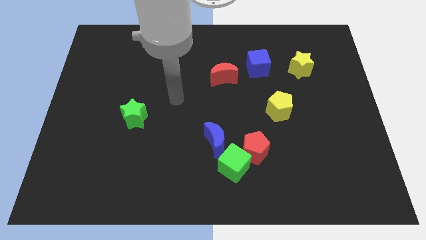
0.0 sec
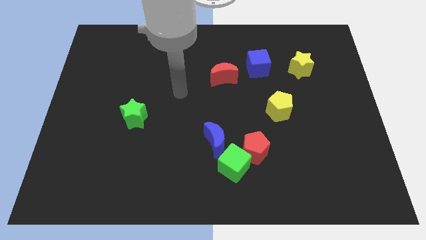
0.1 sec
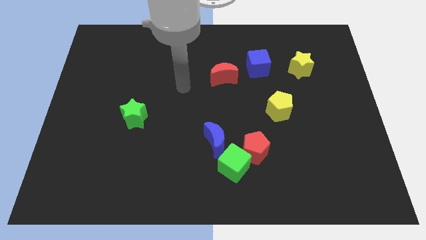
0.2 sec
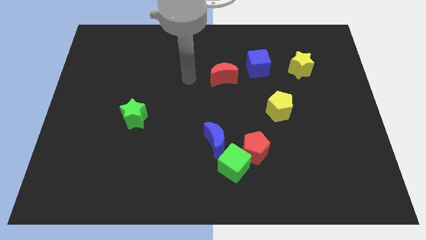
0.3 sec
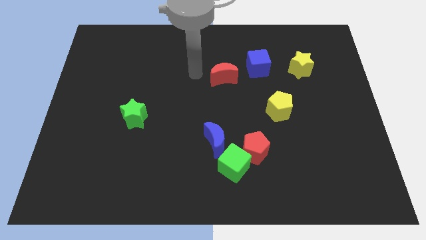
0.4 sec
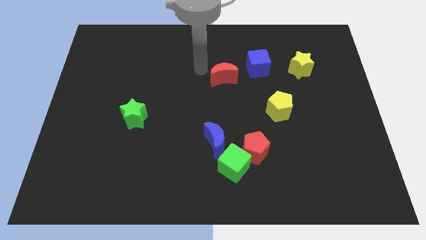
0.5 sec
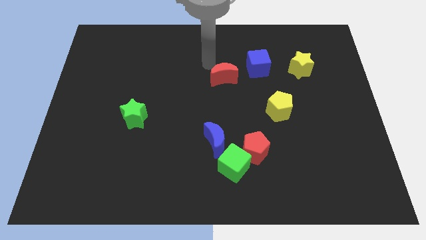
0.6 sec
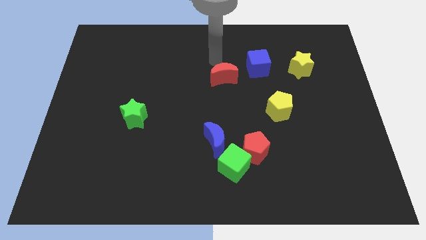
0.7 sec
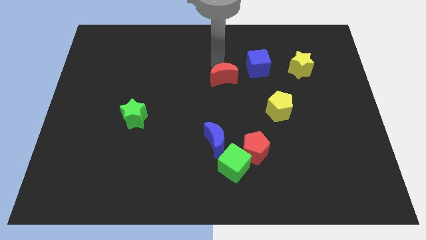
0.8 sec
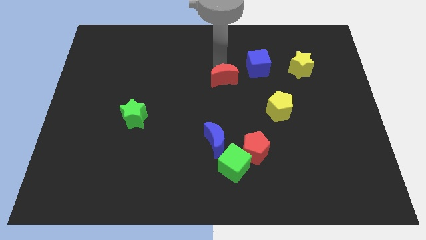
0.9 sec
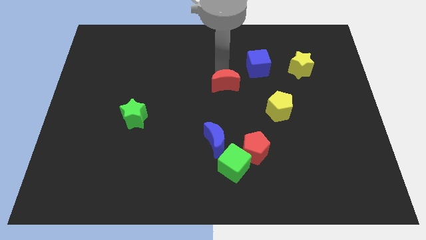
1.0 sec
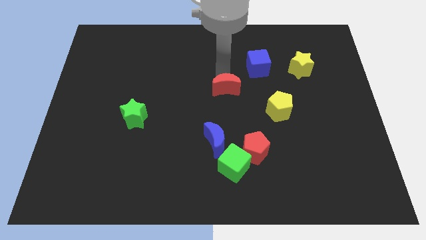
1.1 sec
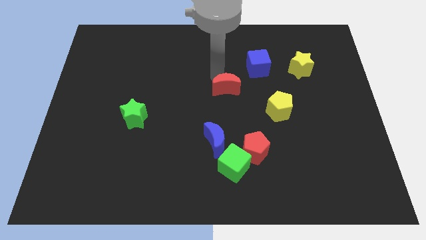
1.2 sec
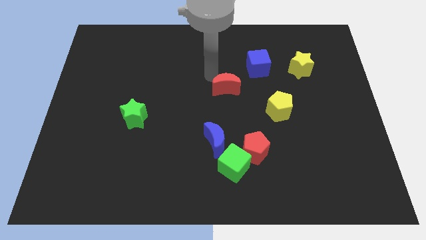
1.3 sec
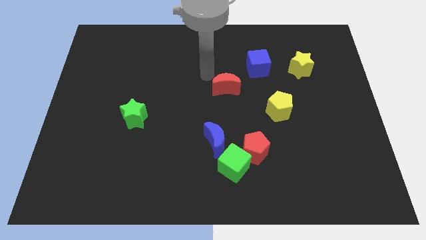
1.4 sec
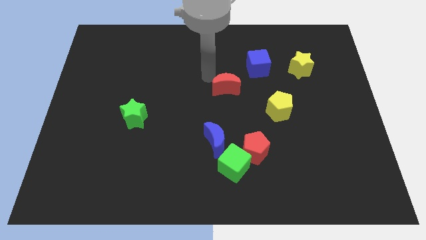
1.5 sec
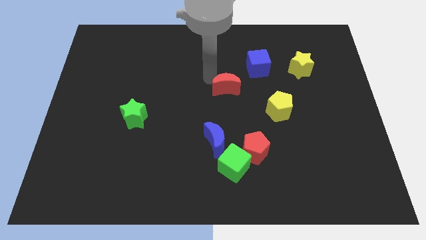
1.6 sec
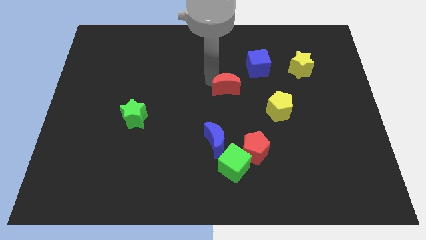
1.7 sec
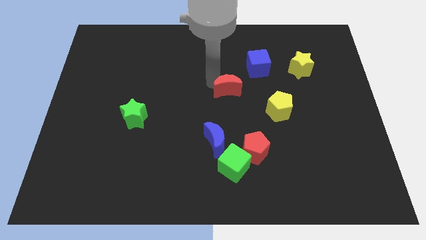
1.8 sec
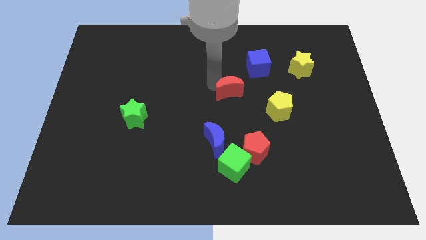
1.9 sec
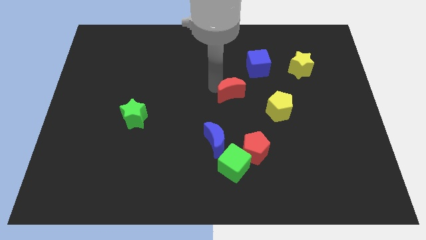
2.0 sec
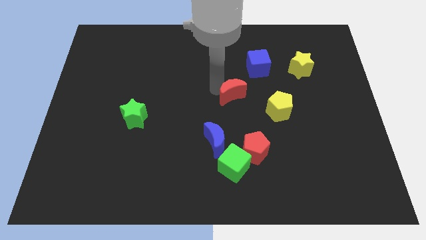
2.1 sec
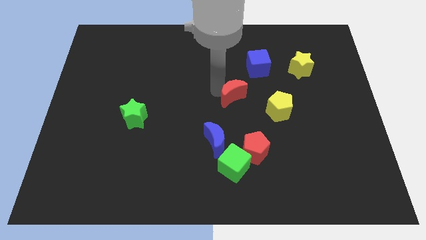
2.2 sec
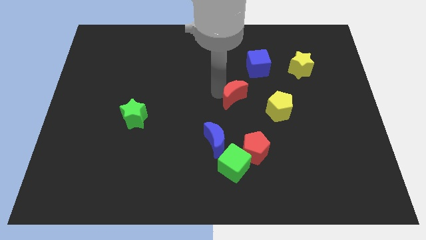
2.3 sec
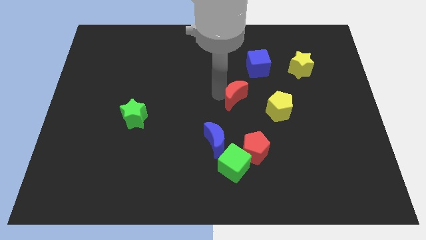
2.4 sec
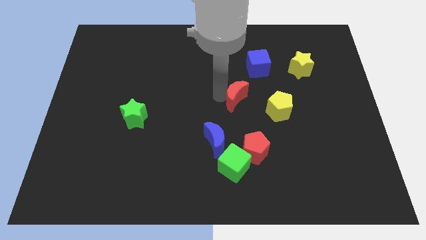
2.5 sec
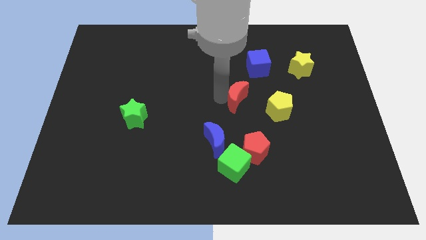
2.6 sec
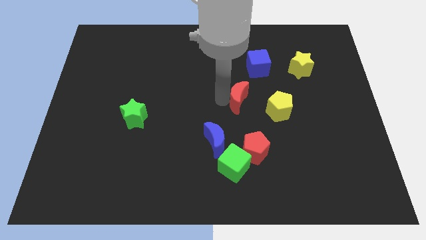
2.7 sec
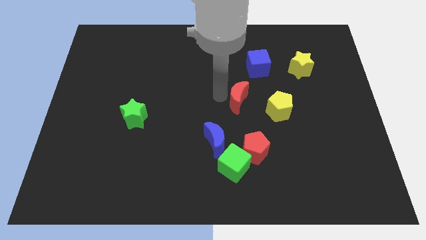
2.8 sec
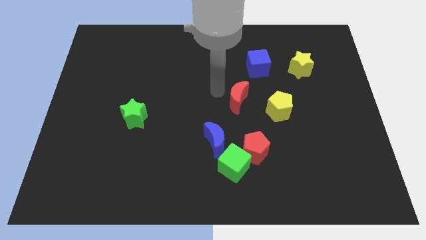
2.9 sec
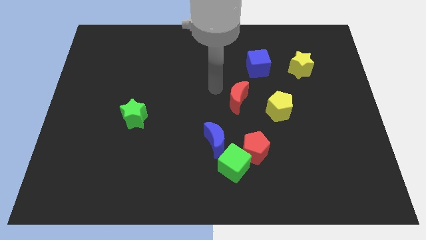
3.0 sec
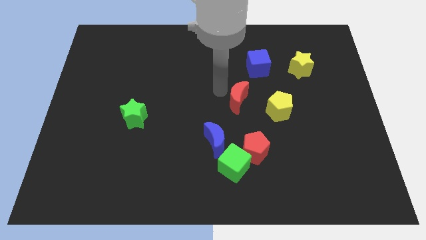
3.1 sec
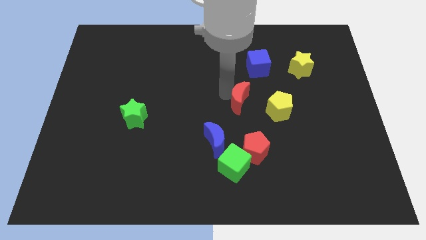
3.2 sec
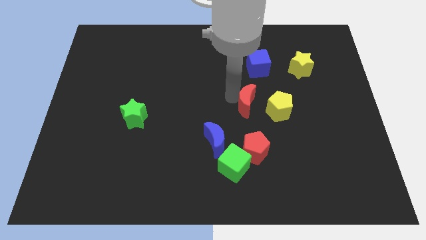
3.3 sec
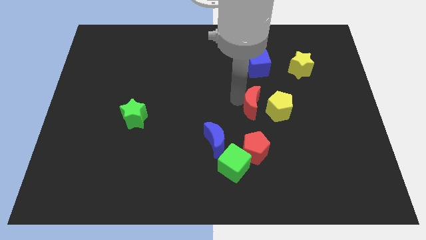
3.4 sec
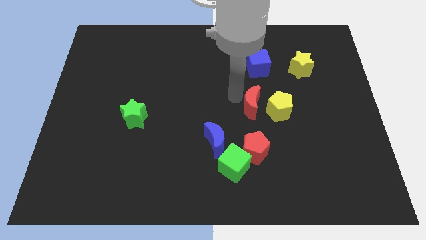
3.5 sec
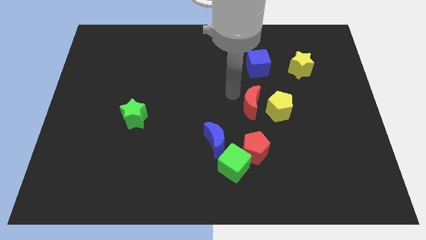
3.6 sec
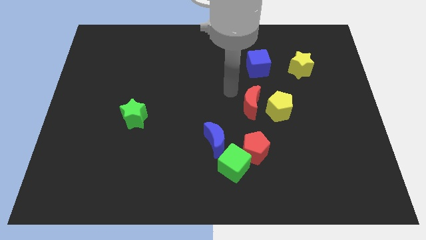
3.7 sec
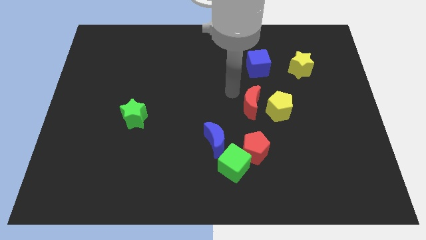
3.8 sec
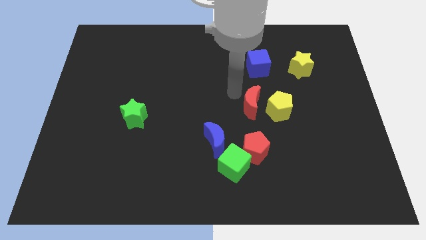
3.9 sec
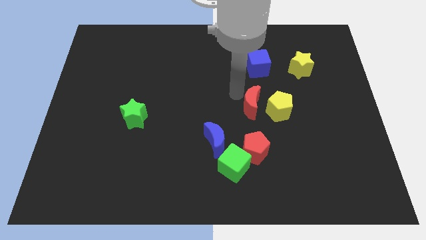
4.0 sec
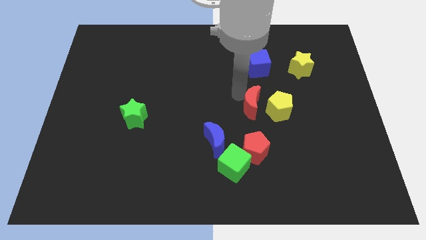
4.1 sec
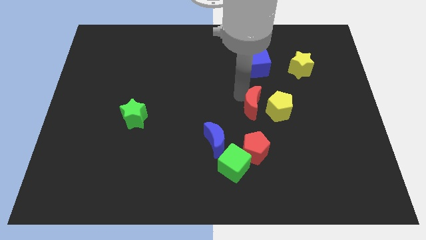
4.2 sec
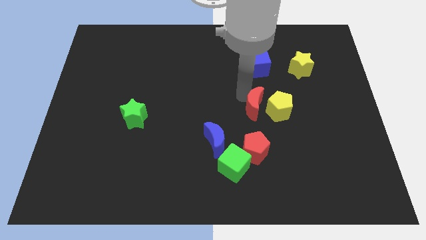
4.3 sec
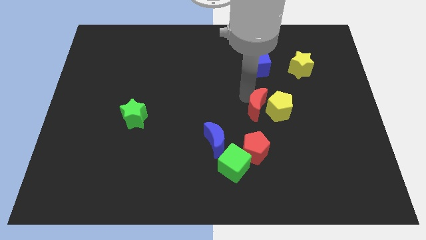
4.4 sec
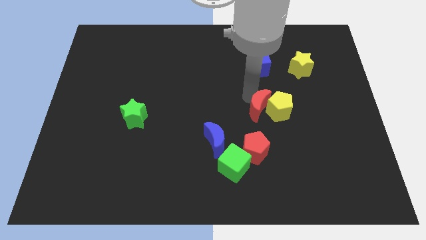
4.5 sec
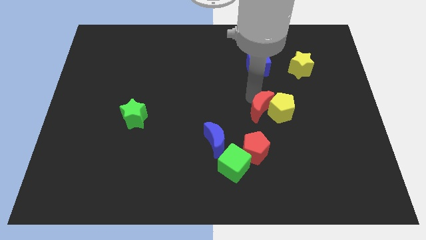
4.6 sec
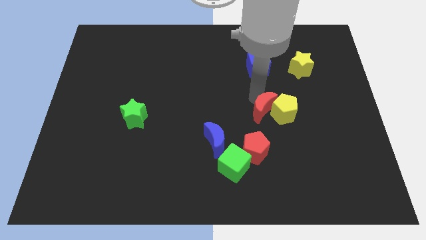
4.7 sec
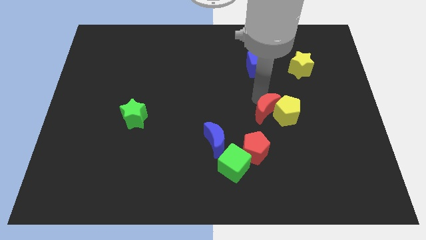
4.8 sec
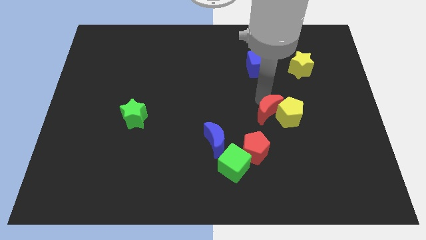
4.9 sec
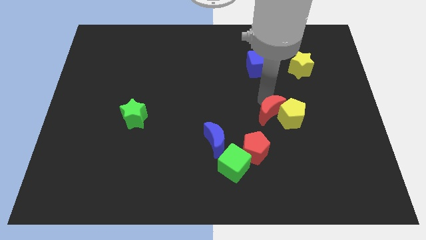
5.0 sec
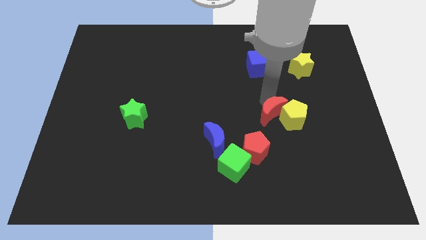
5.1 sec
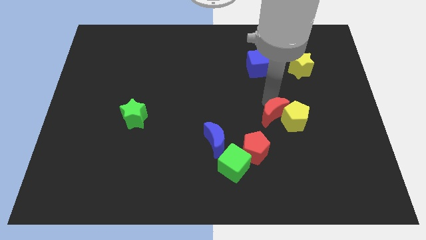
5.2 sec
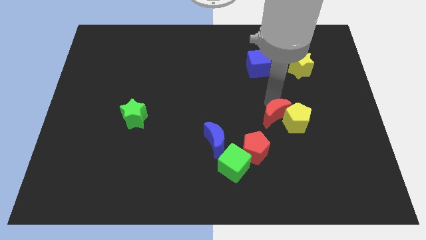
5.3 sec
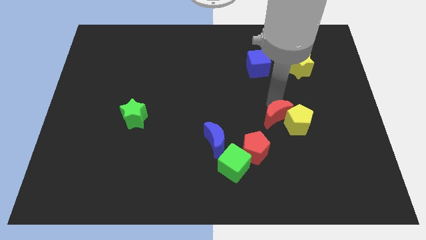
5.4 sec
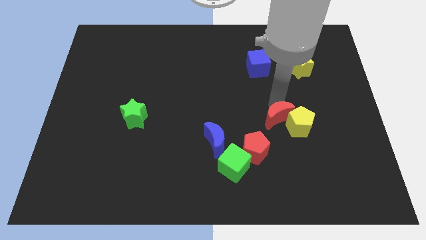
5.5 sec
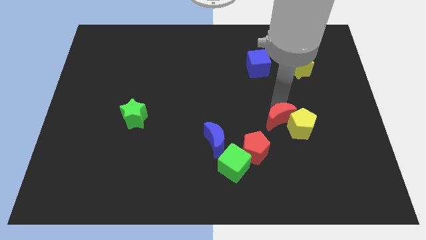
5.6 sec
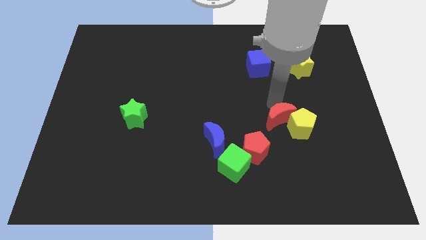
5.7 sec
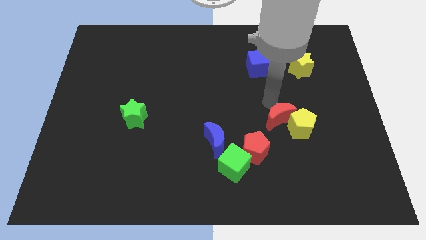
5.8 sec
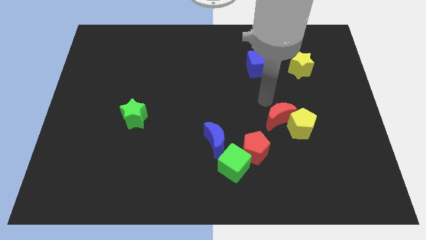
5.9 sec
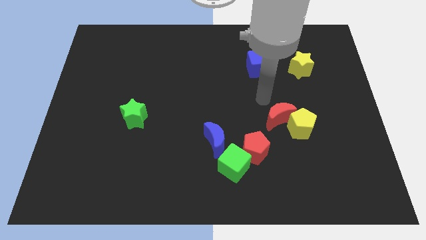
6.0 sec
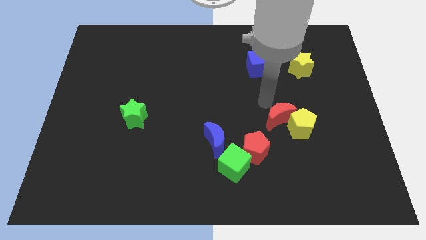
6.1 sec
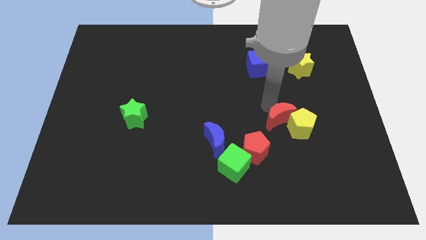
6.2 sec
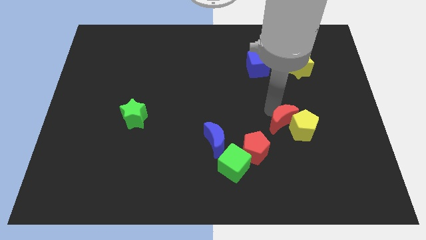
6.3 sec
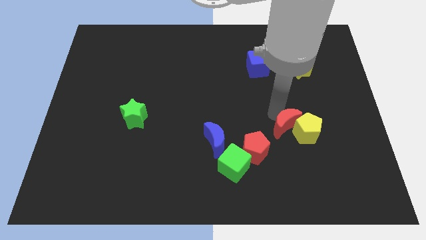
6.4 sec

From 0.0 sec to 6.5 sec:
move the red moon downwards and then right

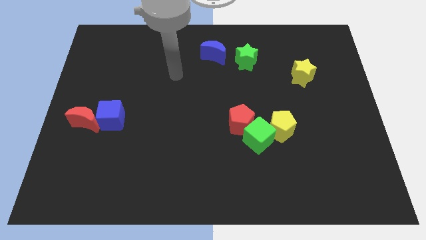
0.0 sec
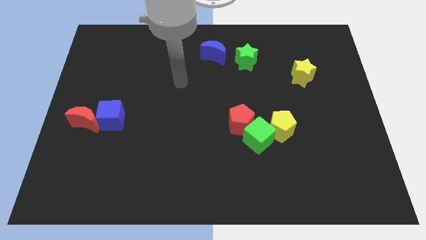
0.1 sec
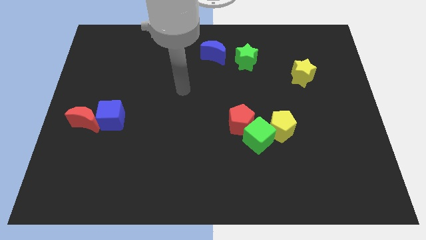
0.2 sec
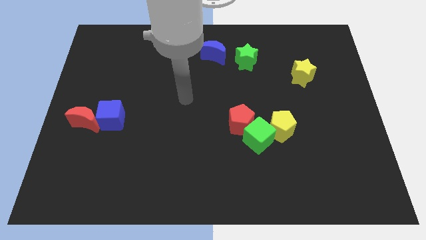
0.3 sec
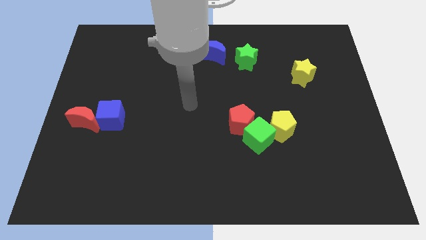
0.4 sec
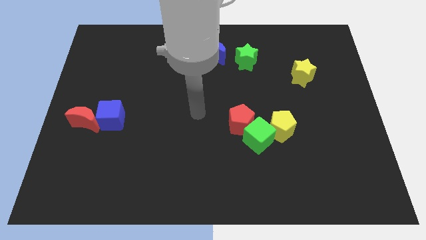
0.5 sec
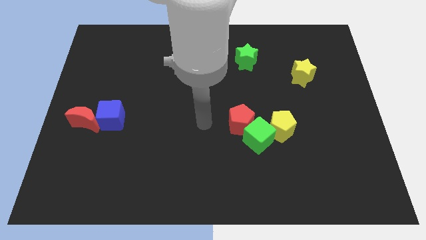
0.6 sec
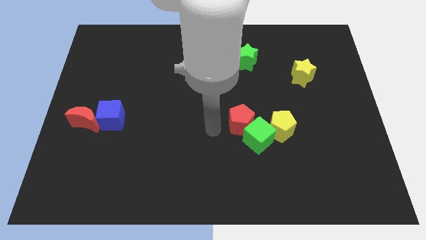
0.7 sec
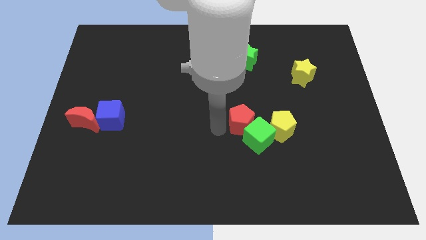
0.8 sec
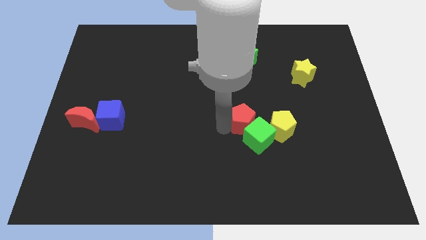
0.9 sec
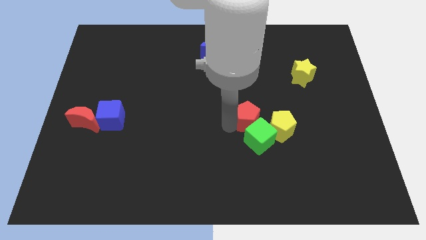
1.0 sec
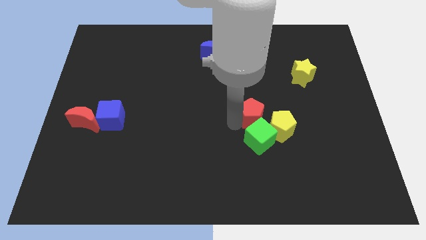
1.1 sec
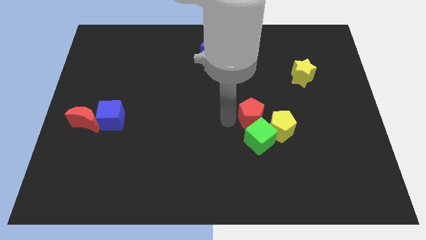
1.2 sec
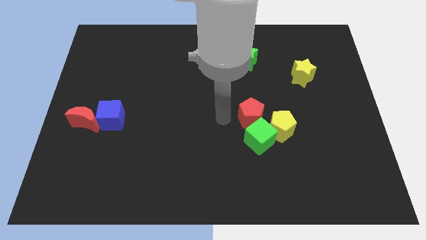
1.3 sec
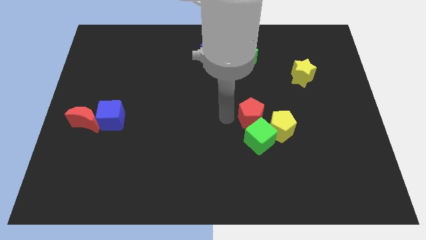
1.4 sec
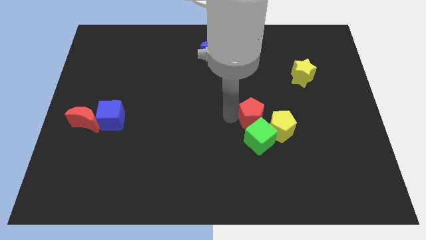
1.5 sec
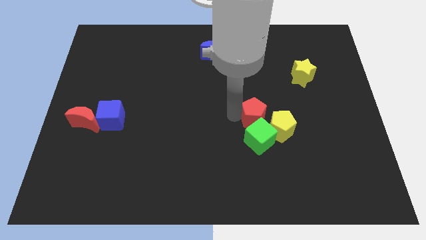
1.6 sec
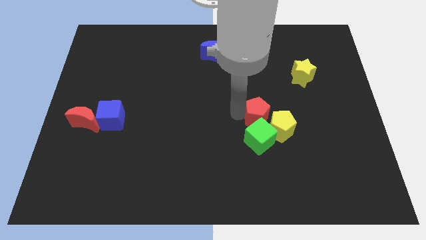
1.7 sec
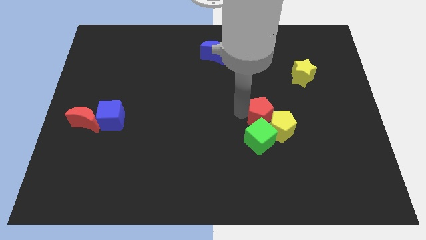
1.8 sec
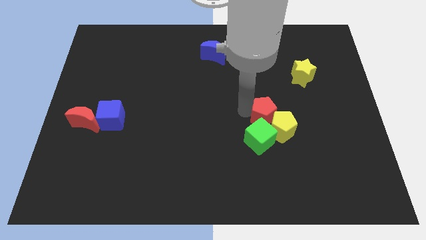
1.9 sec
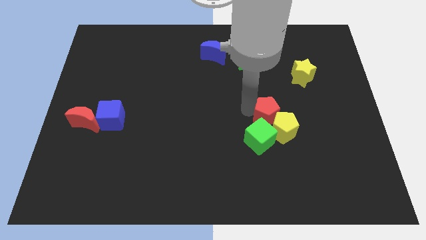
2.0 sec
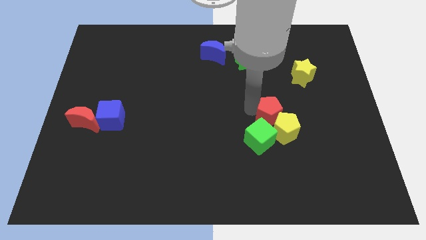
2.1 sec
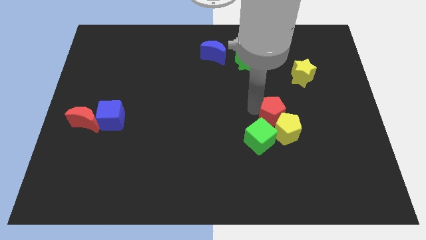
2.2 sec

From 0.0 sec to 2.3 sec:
move the red pentagon a little to the right
